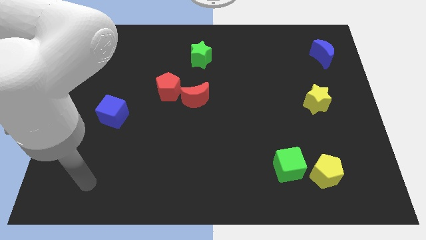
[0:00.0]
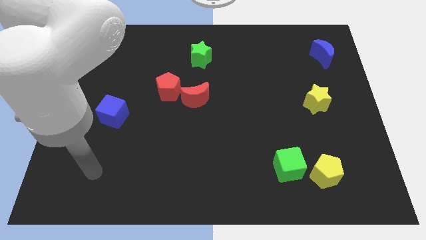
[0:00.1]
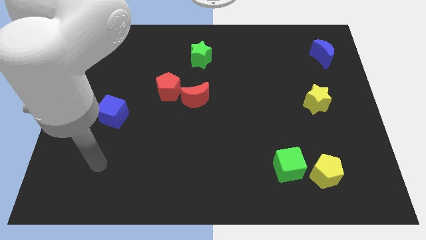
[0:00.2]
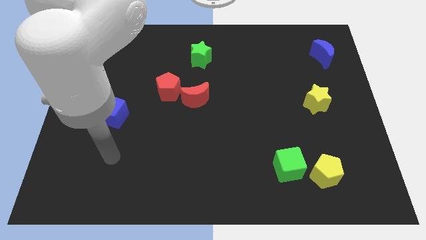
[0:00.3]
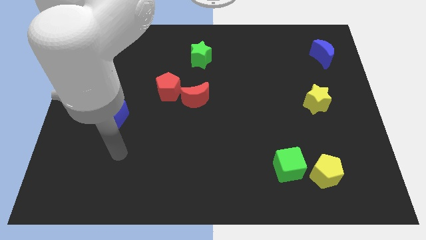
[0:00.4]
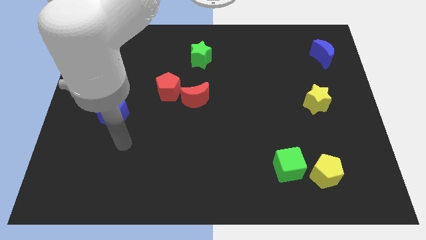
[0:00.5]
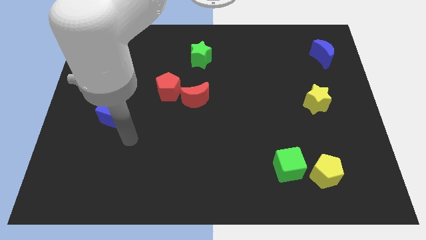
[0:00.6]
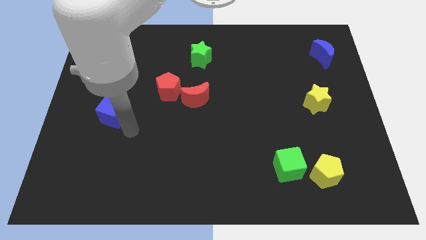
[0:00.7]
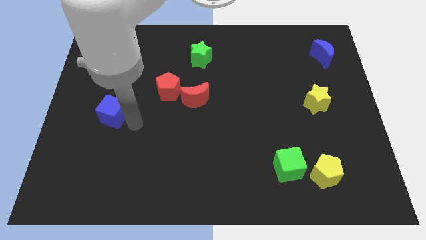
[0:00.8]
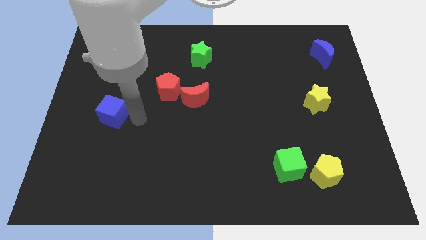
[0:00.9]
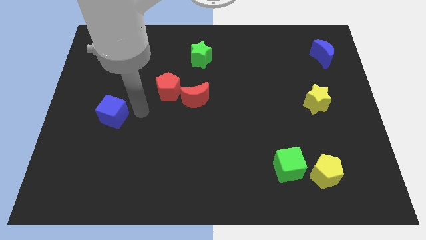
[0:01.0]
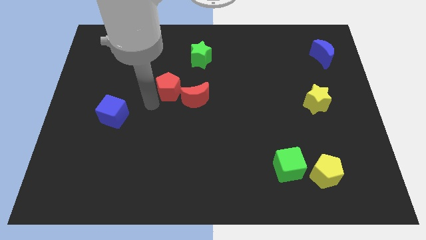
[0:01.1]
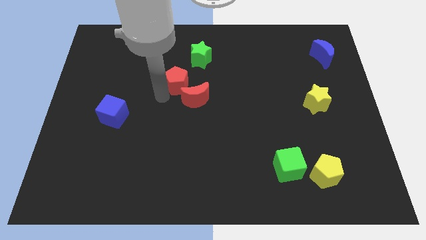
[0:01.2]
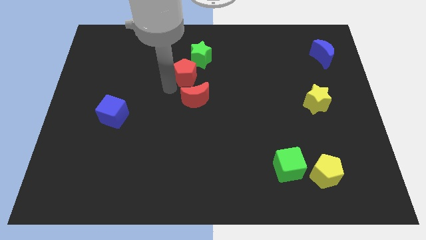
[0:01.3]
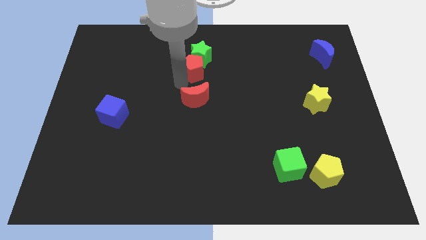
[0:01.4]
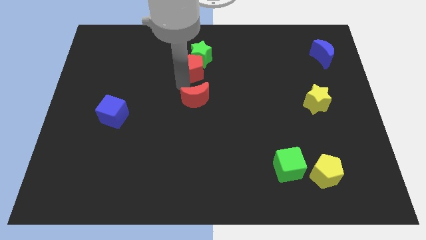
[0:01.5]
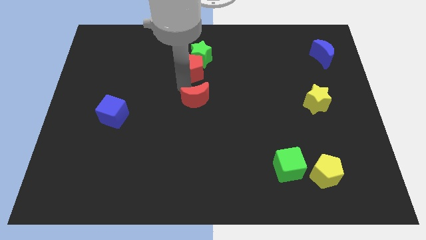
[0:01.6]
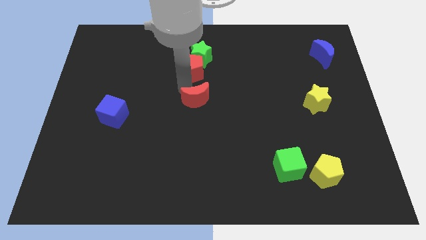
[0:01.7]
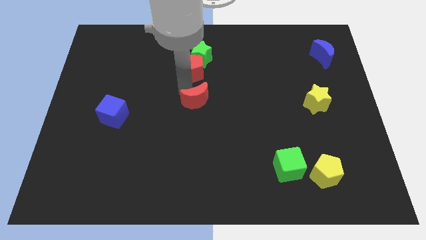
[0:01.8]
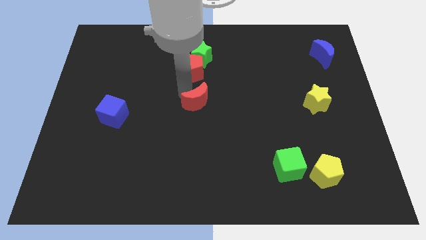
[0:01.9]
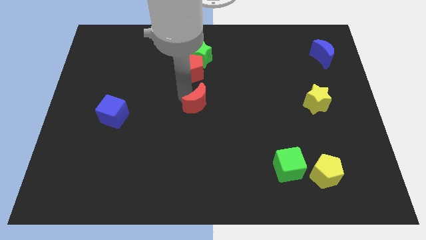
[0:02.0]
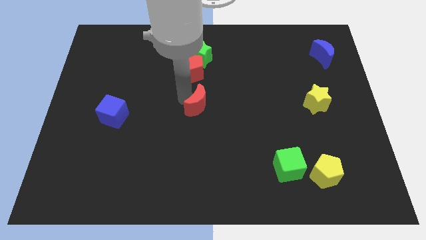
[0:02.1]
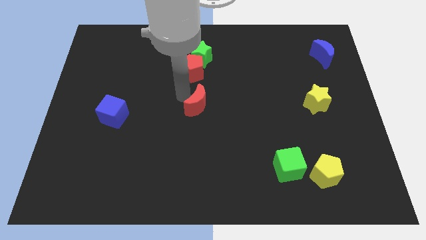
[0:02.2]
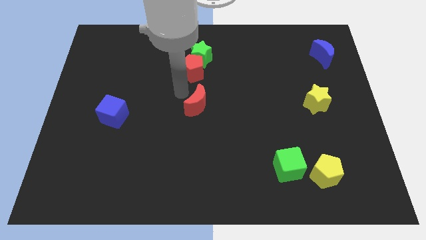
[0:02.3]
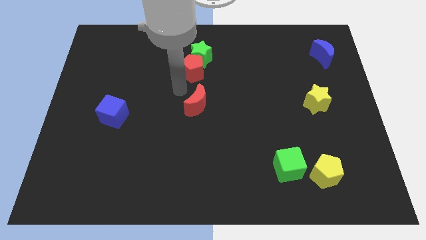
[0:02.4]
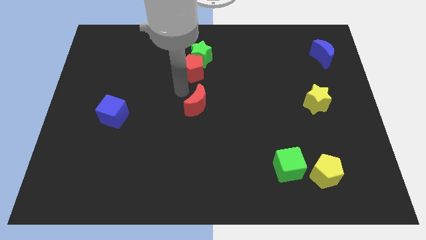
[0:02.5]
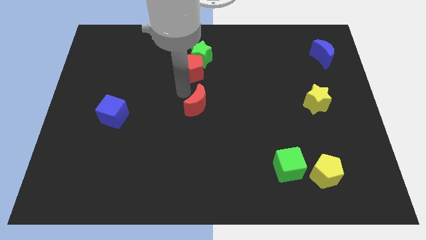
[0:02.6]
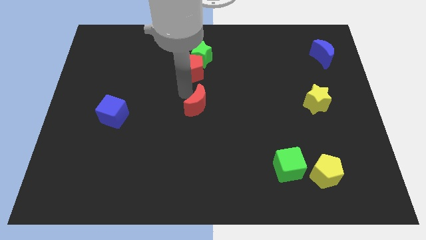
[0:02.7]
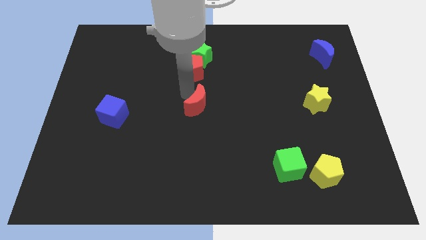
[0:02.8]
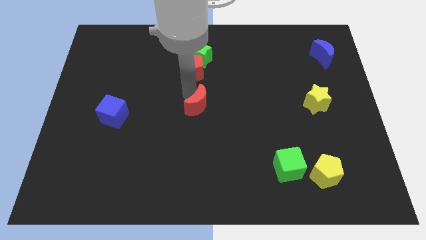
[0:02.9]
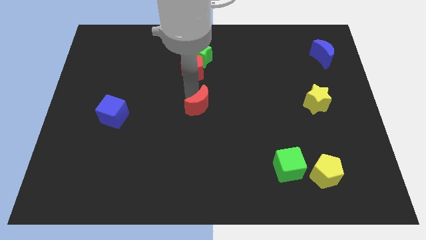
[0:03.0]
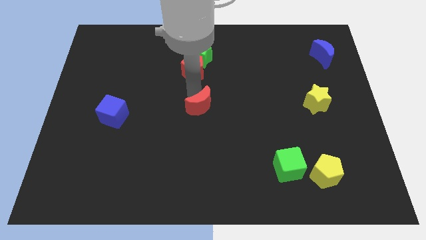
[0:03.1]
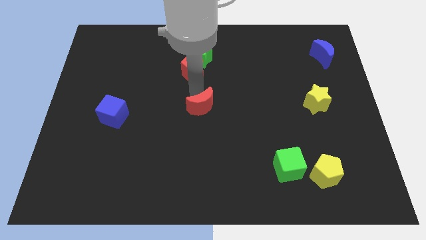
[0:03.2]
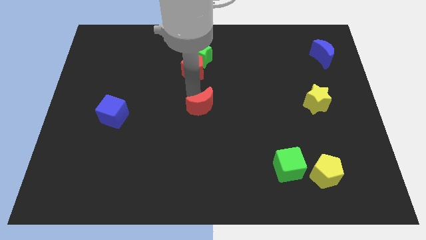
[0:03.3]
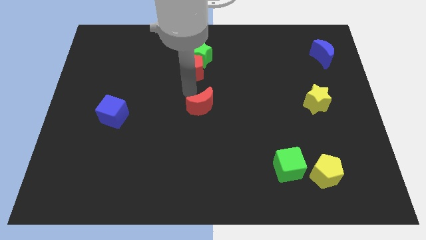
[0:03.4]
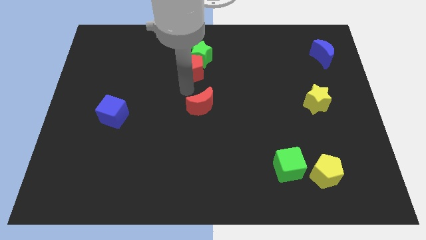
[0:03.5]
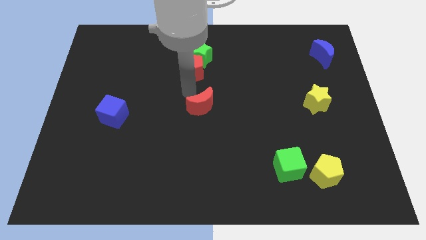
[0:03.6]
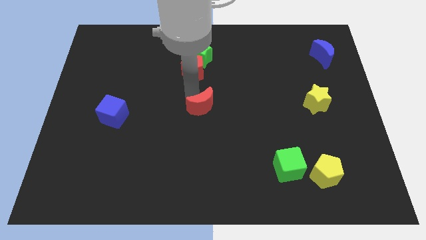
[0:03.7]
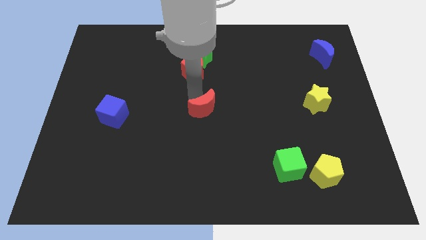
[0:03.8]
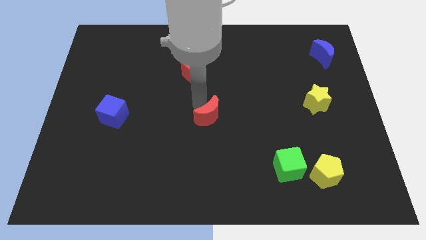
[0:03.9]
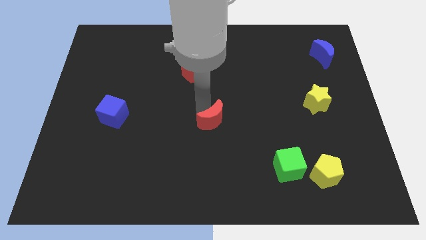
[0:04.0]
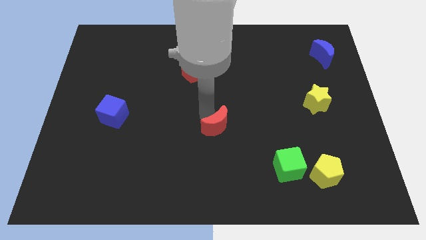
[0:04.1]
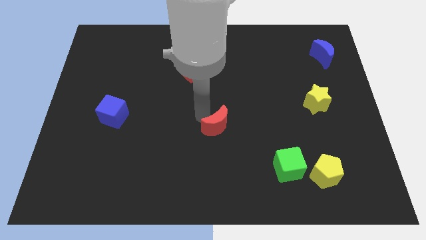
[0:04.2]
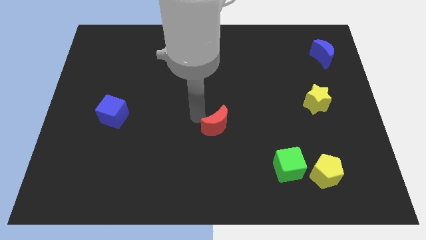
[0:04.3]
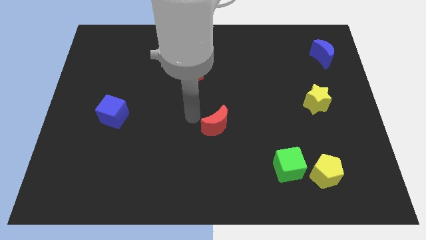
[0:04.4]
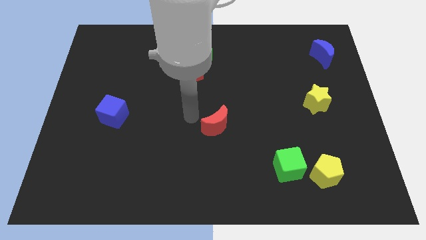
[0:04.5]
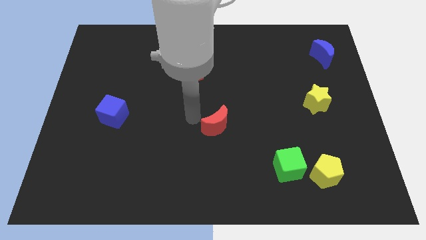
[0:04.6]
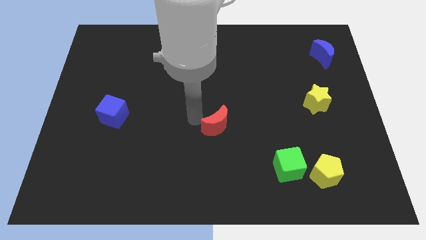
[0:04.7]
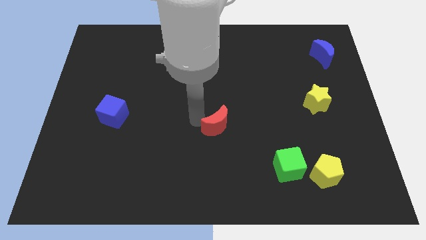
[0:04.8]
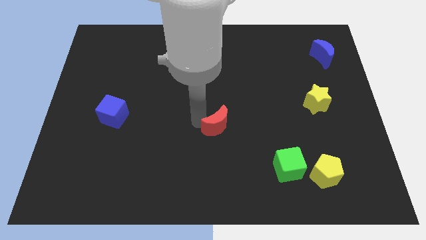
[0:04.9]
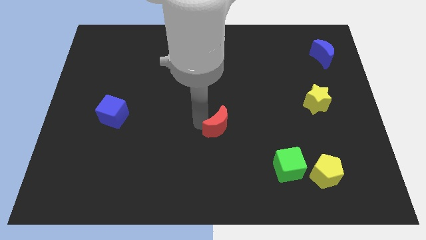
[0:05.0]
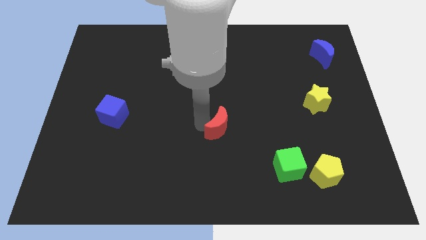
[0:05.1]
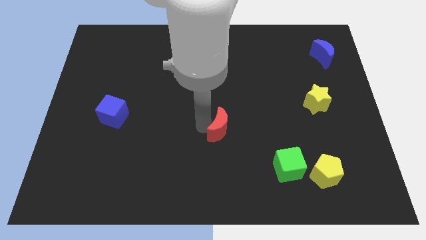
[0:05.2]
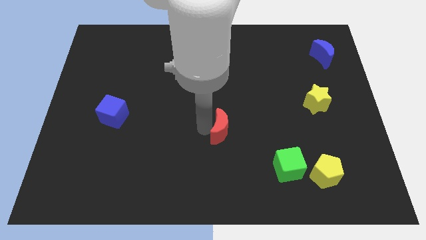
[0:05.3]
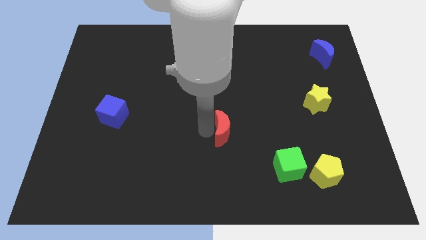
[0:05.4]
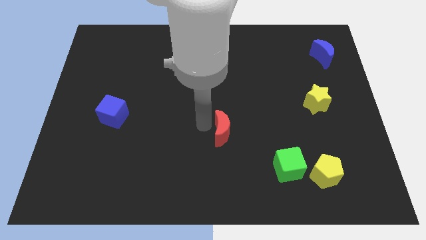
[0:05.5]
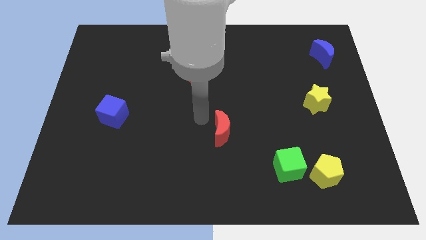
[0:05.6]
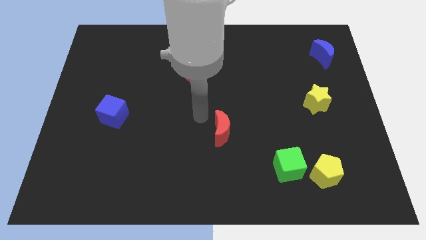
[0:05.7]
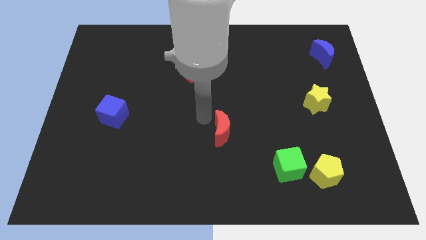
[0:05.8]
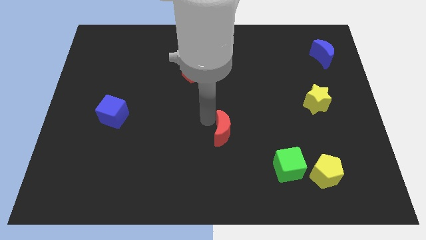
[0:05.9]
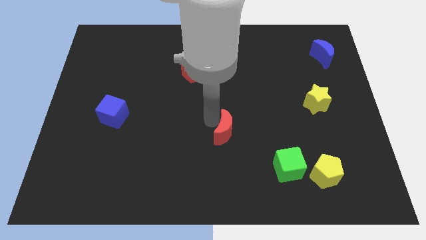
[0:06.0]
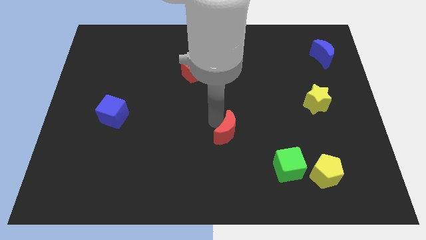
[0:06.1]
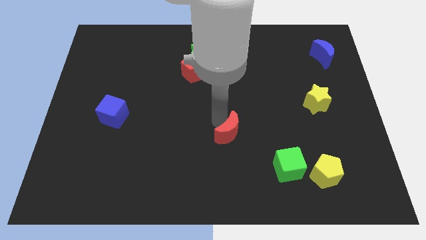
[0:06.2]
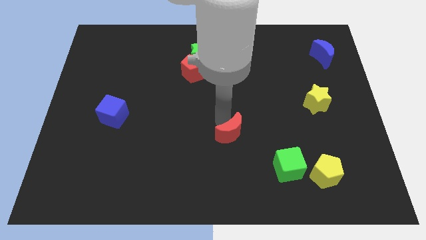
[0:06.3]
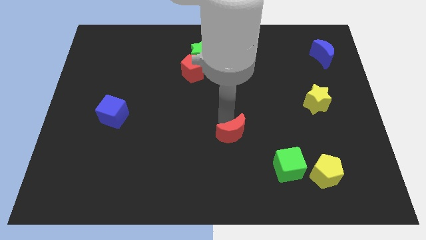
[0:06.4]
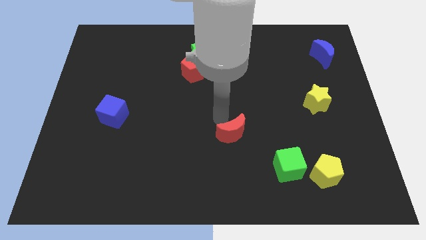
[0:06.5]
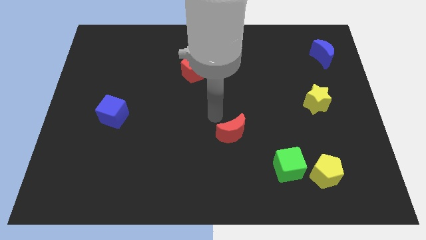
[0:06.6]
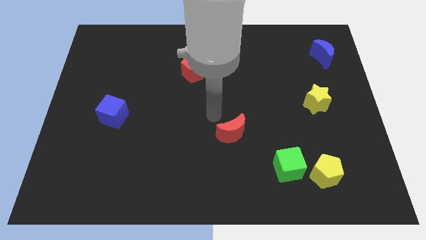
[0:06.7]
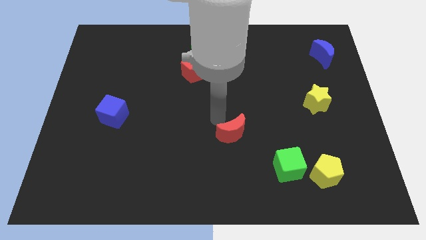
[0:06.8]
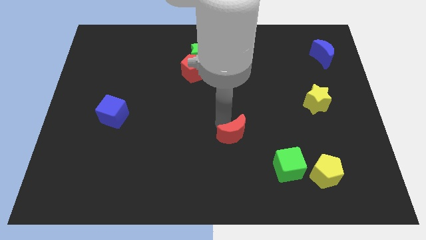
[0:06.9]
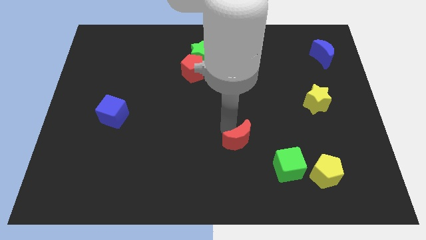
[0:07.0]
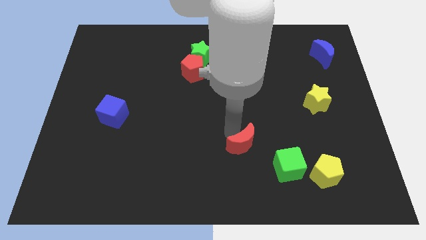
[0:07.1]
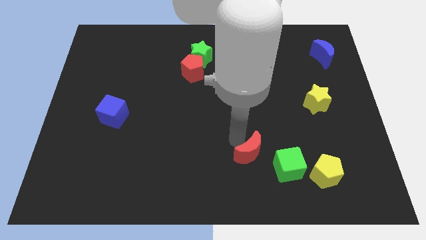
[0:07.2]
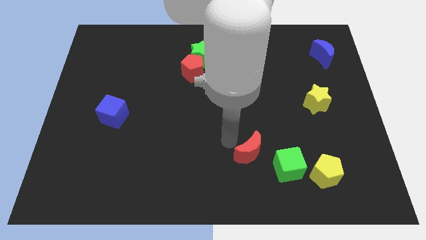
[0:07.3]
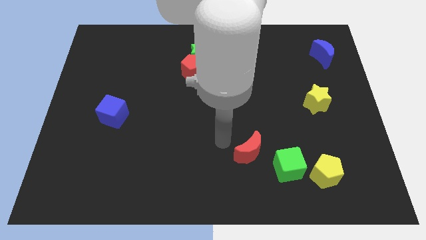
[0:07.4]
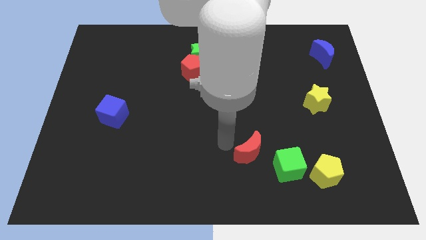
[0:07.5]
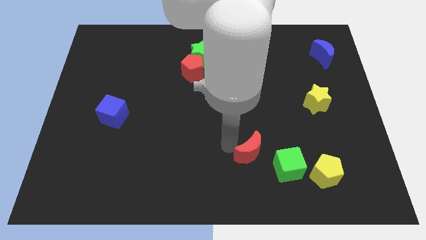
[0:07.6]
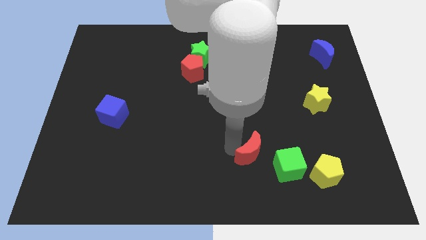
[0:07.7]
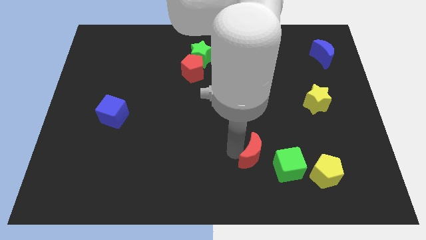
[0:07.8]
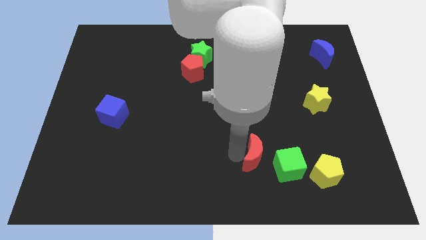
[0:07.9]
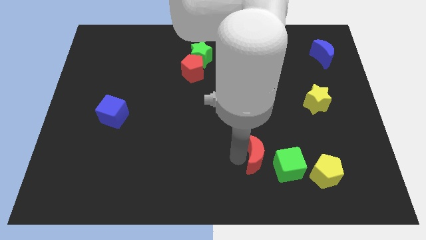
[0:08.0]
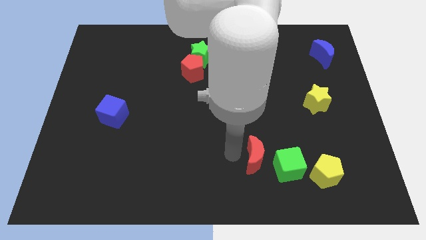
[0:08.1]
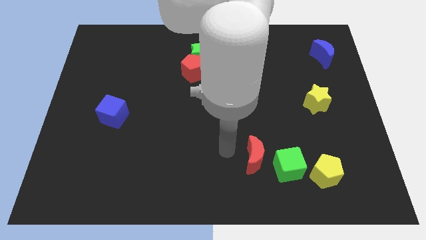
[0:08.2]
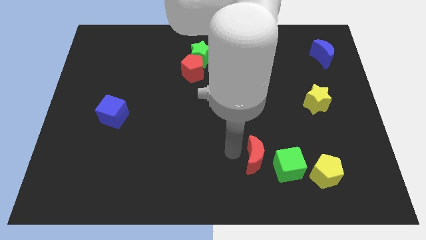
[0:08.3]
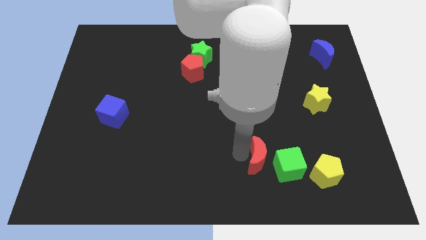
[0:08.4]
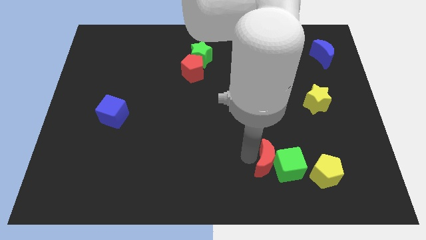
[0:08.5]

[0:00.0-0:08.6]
slide the red moon next to the green cube
